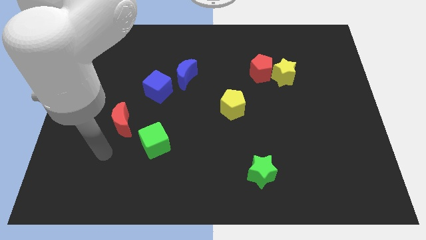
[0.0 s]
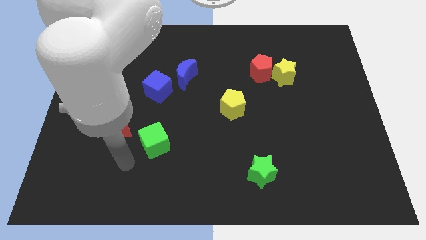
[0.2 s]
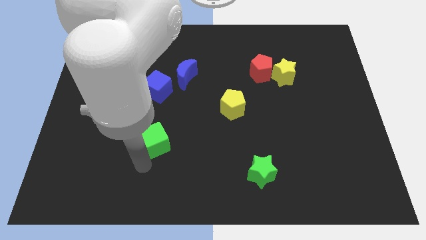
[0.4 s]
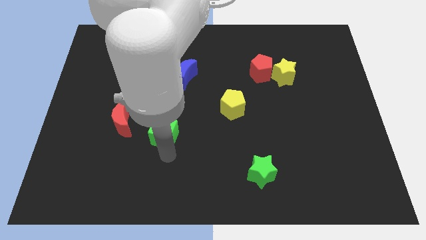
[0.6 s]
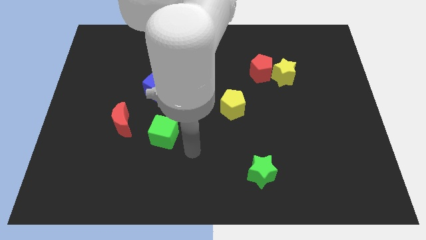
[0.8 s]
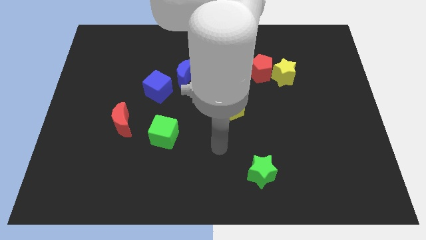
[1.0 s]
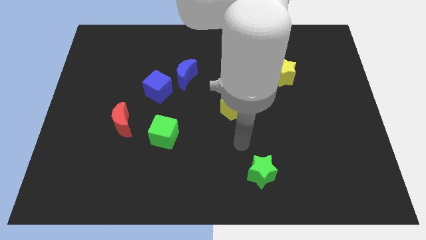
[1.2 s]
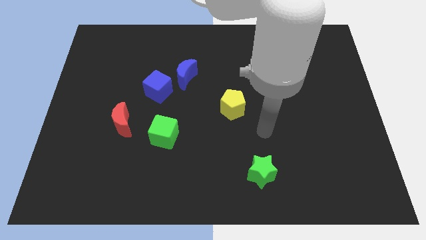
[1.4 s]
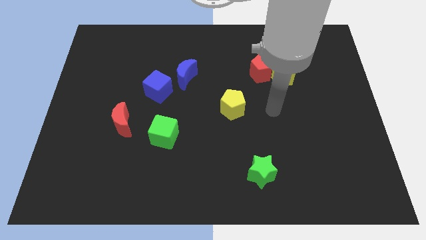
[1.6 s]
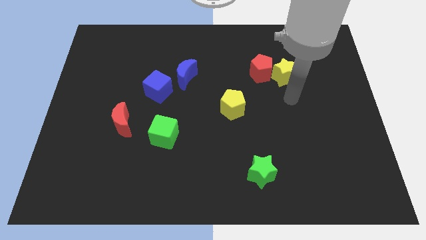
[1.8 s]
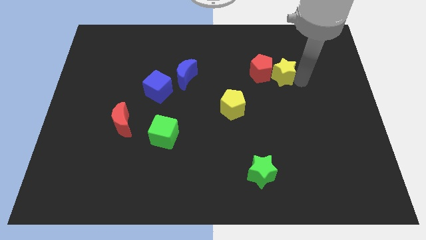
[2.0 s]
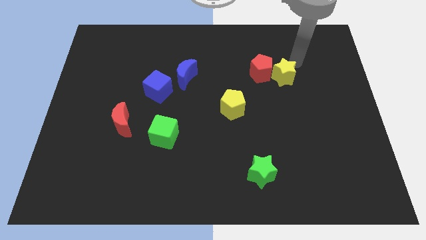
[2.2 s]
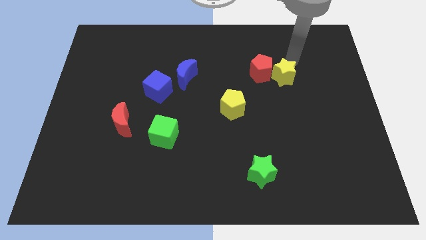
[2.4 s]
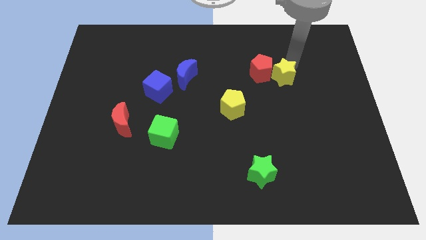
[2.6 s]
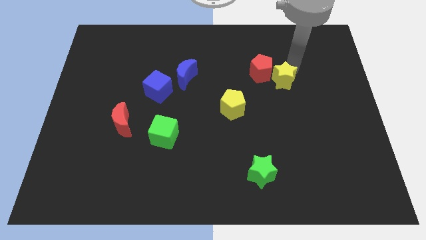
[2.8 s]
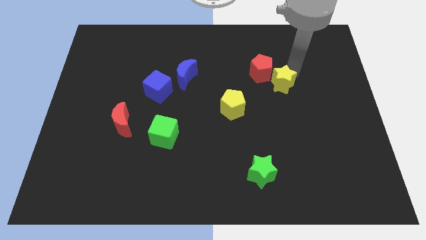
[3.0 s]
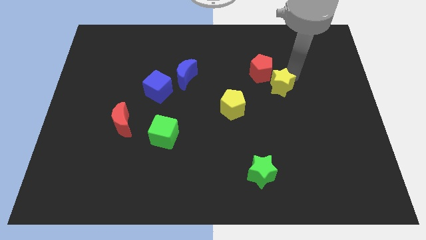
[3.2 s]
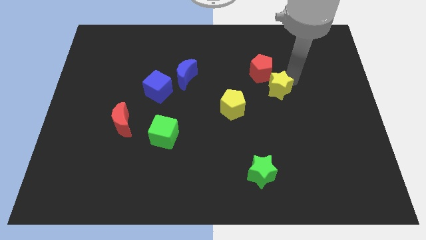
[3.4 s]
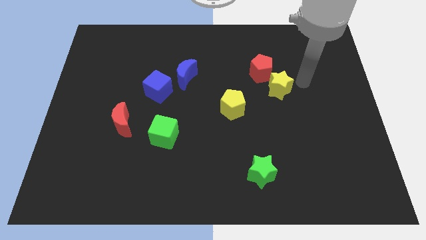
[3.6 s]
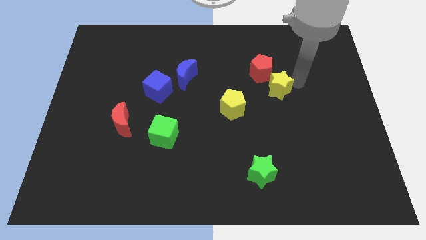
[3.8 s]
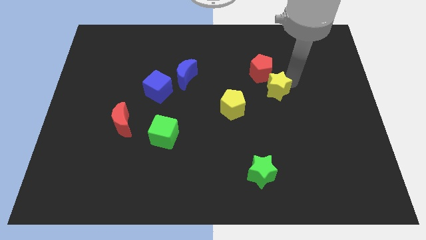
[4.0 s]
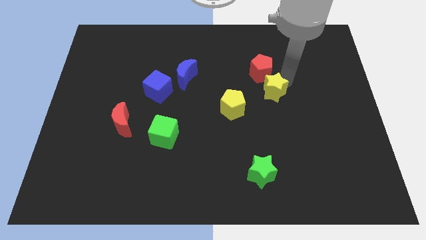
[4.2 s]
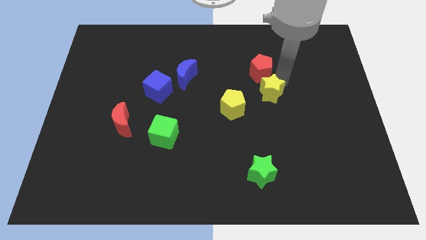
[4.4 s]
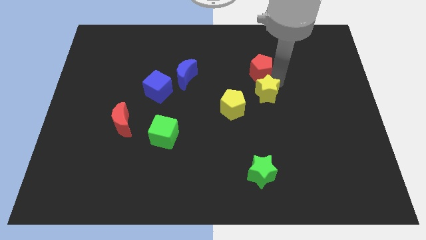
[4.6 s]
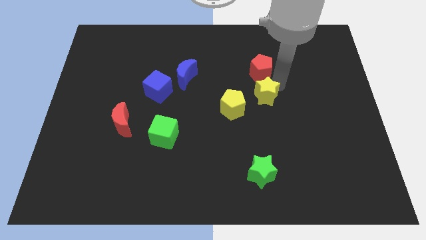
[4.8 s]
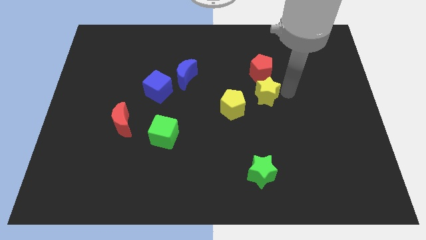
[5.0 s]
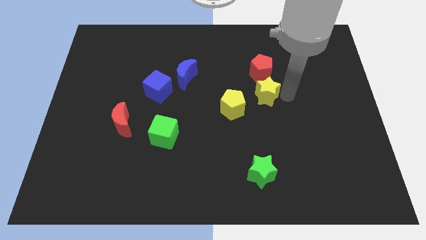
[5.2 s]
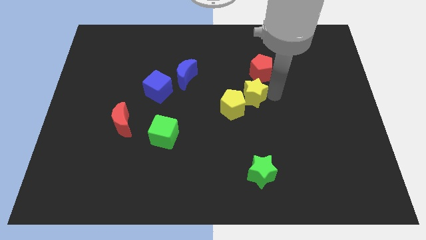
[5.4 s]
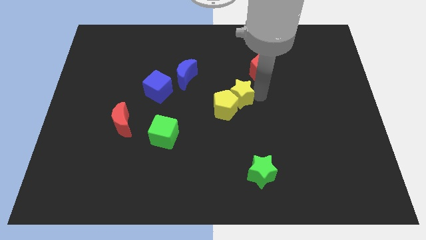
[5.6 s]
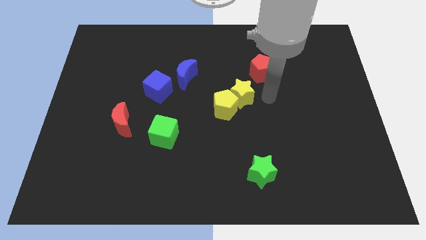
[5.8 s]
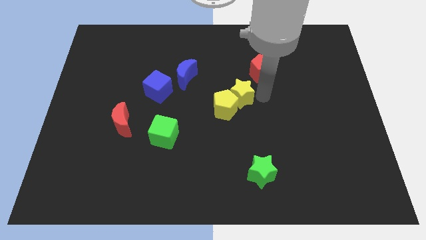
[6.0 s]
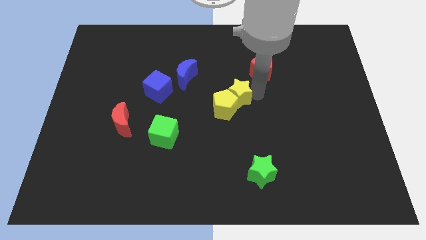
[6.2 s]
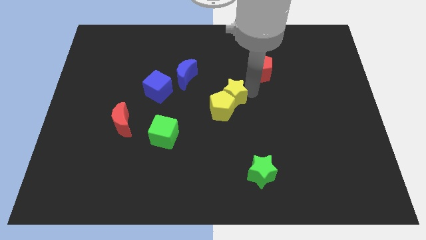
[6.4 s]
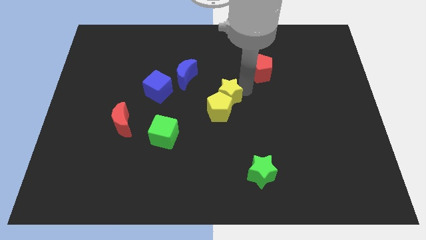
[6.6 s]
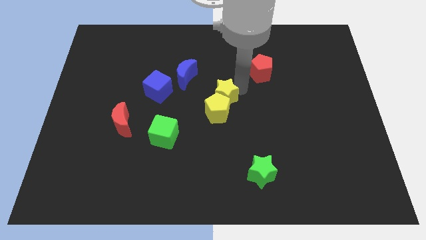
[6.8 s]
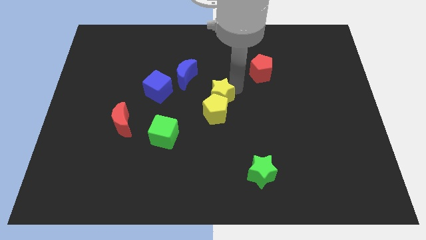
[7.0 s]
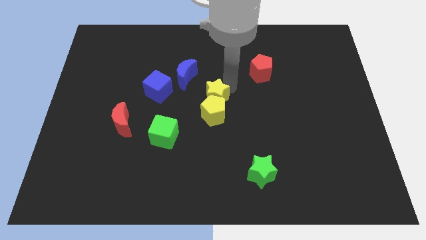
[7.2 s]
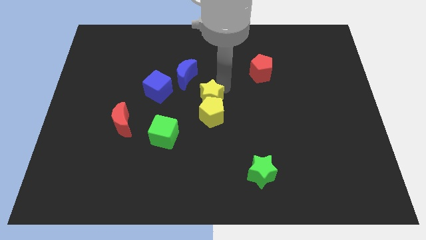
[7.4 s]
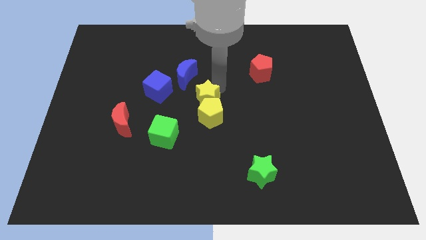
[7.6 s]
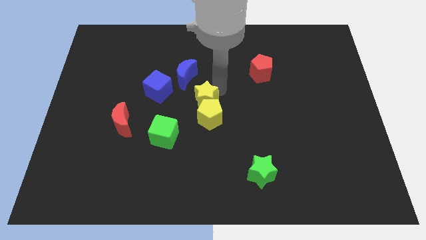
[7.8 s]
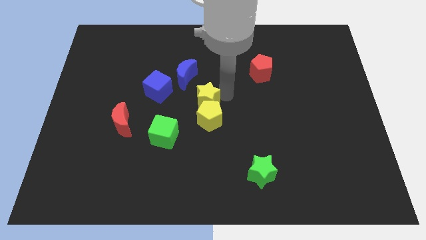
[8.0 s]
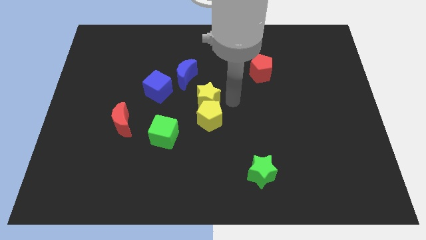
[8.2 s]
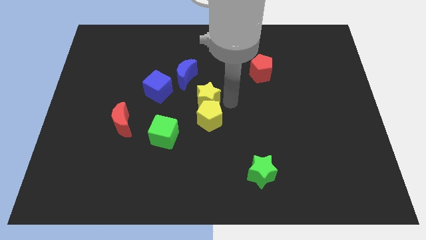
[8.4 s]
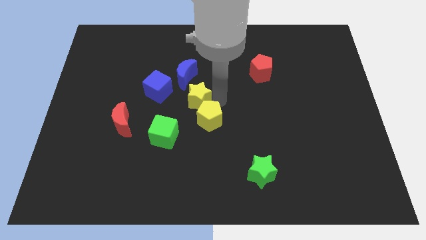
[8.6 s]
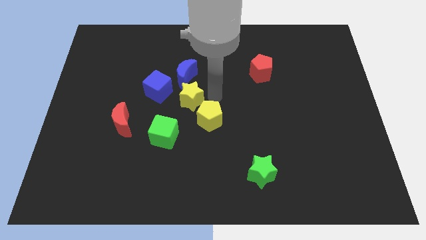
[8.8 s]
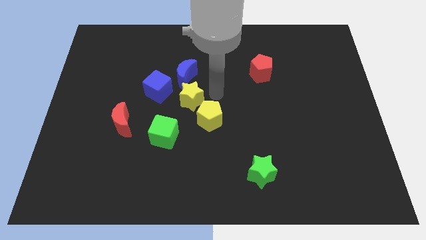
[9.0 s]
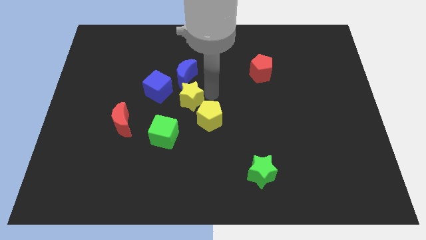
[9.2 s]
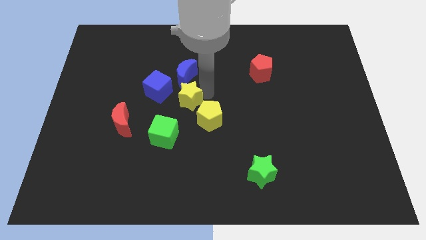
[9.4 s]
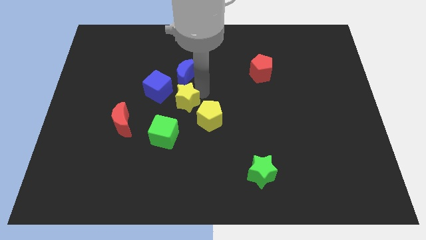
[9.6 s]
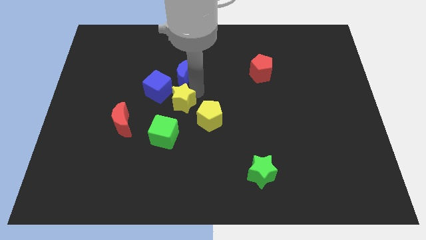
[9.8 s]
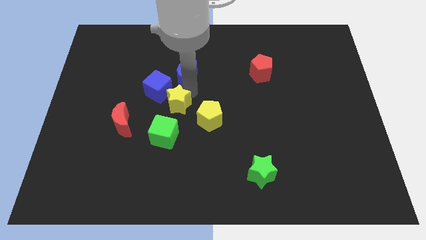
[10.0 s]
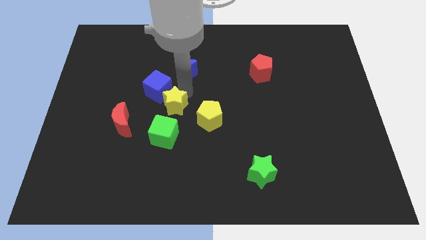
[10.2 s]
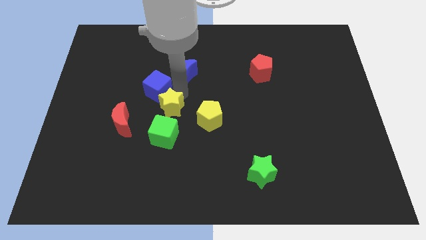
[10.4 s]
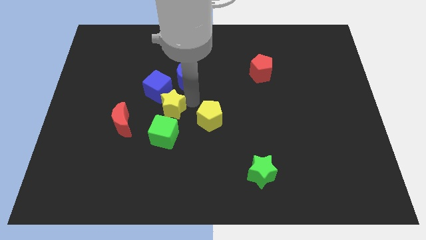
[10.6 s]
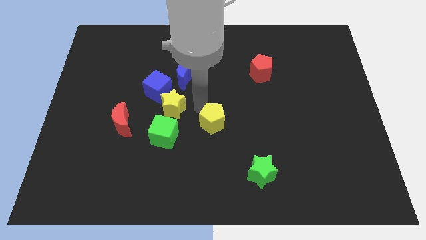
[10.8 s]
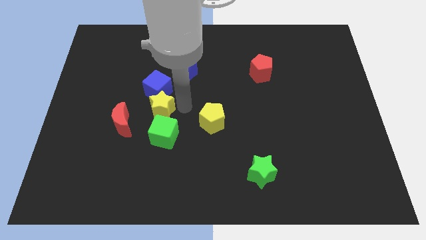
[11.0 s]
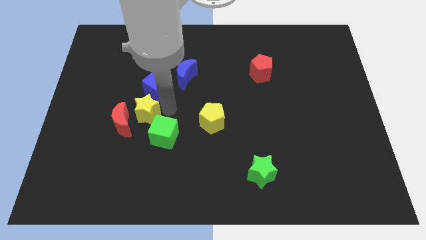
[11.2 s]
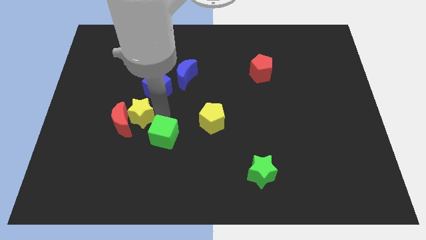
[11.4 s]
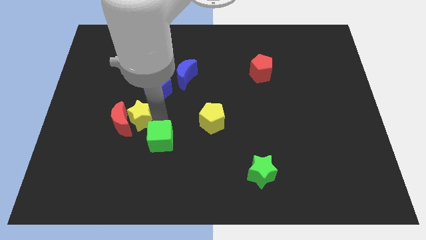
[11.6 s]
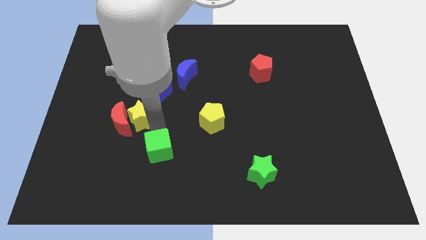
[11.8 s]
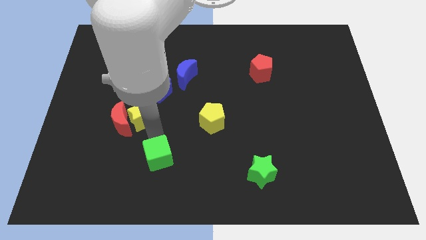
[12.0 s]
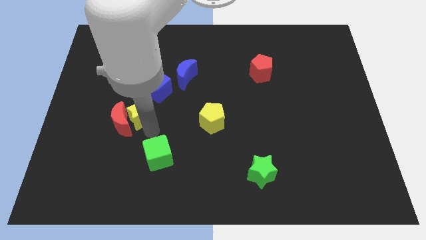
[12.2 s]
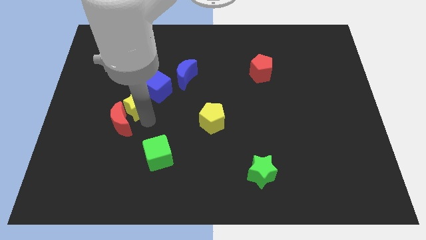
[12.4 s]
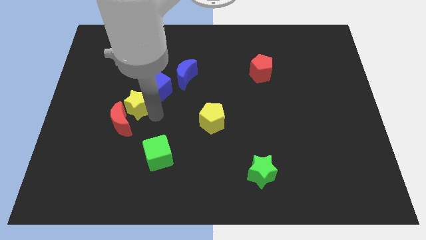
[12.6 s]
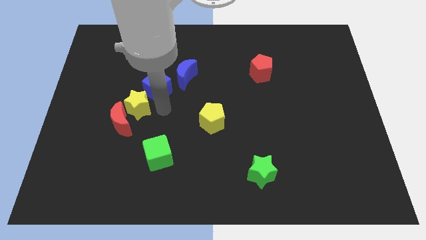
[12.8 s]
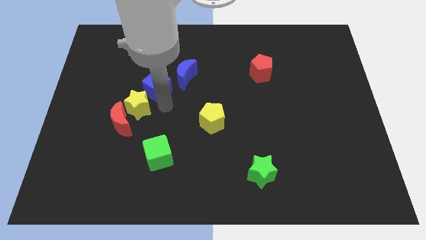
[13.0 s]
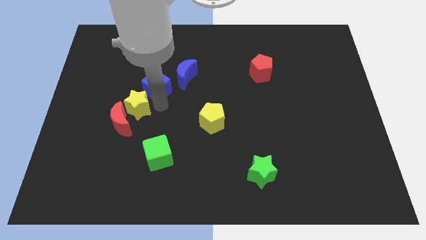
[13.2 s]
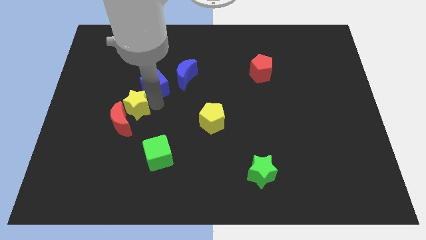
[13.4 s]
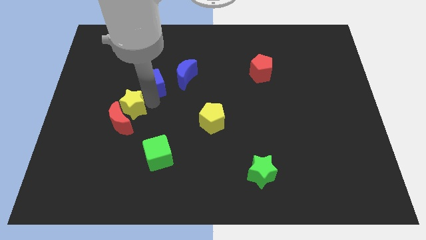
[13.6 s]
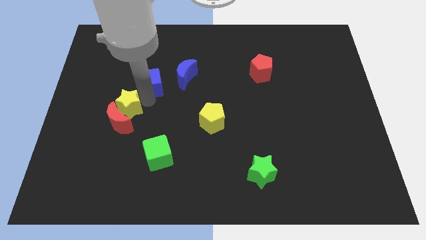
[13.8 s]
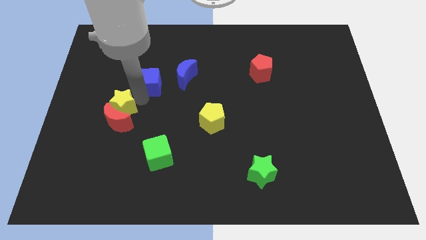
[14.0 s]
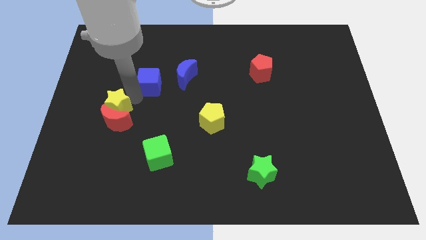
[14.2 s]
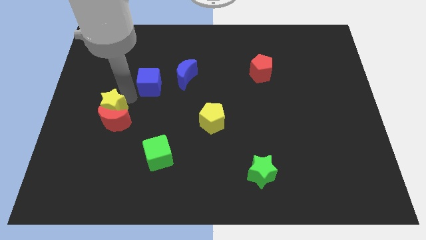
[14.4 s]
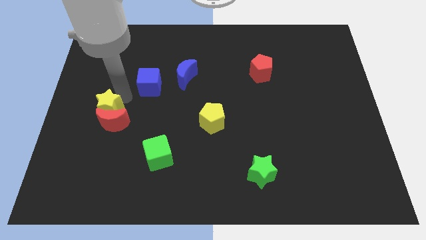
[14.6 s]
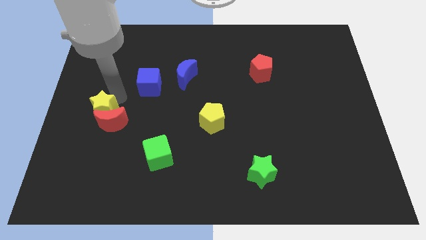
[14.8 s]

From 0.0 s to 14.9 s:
put the yellow star to the left side
